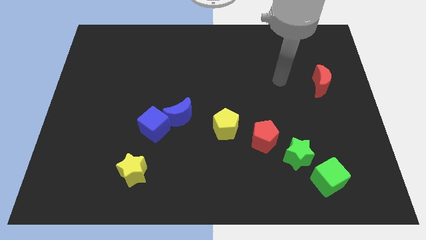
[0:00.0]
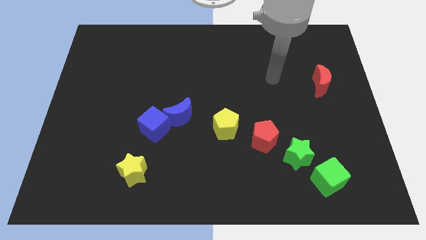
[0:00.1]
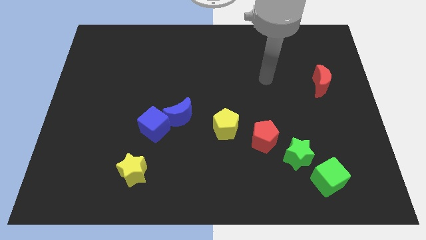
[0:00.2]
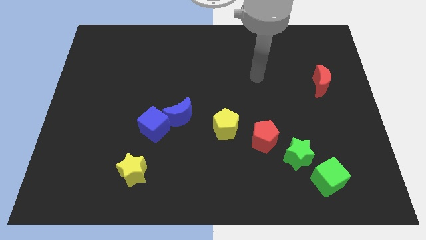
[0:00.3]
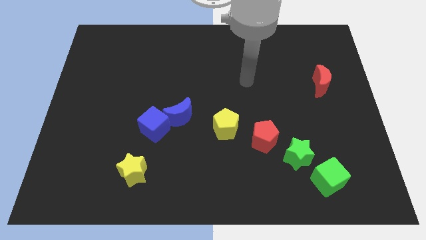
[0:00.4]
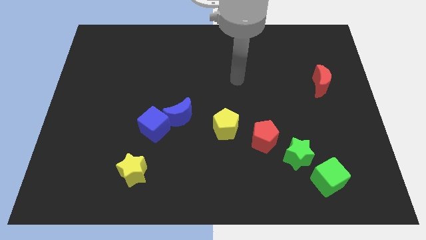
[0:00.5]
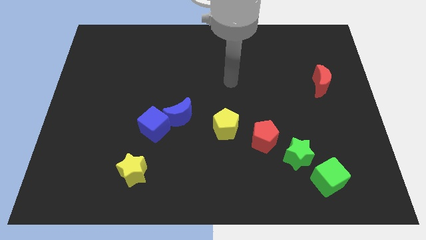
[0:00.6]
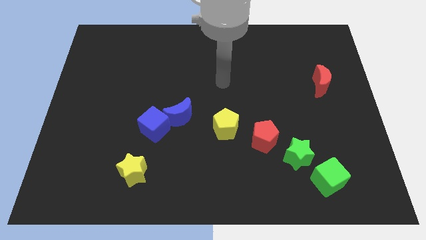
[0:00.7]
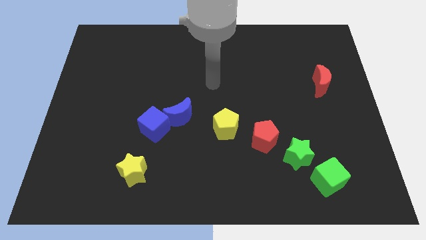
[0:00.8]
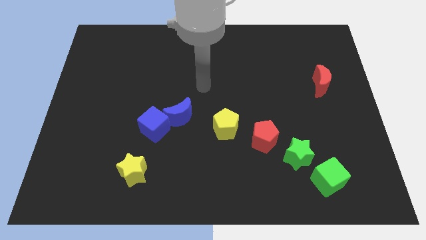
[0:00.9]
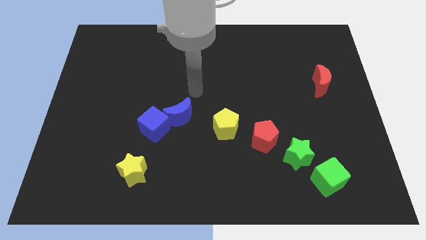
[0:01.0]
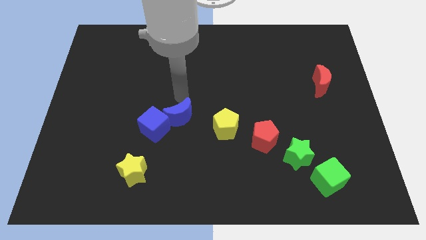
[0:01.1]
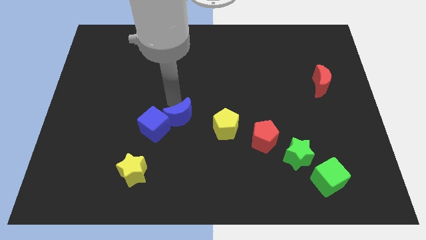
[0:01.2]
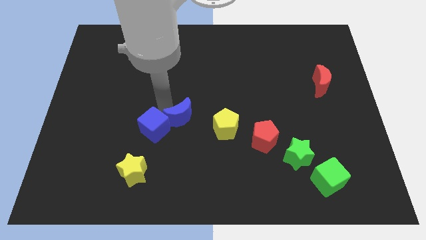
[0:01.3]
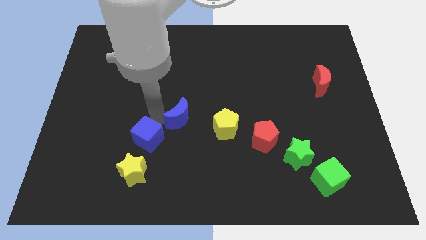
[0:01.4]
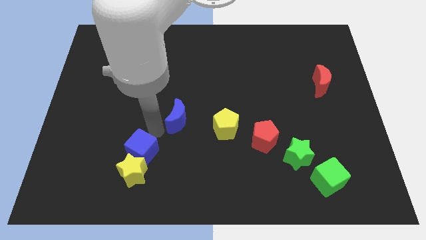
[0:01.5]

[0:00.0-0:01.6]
separate the blue moon from the blue cube

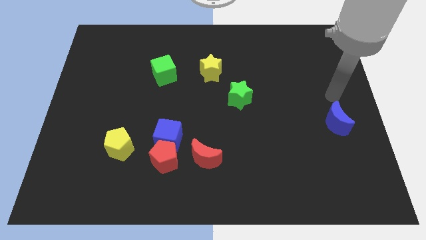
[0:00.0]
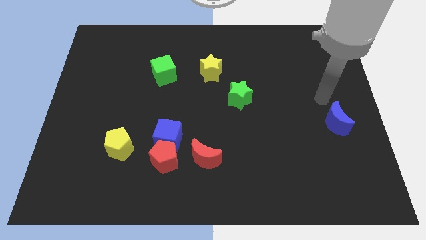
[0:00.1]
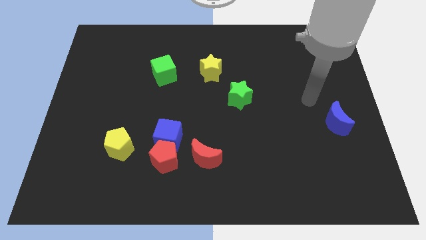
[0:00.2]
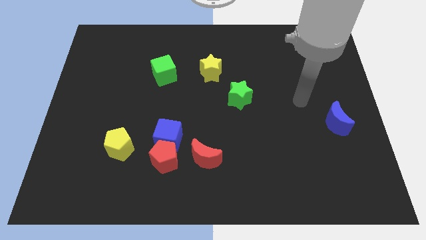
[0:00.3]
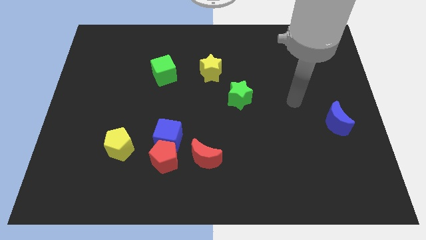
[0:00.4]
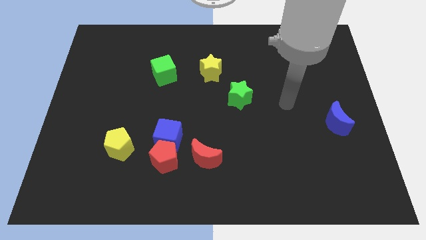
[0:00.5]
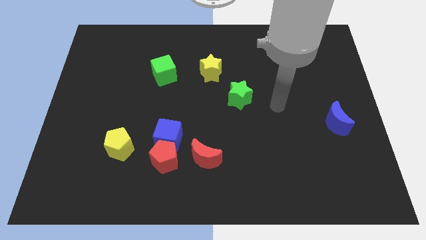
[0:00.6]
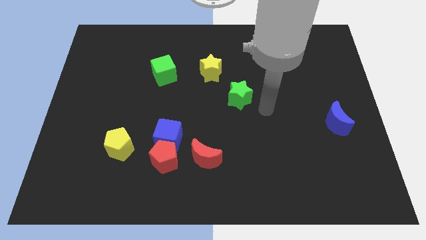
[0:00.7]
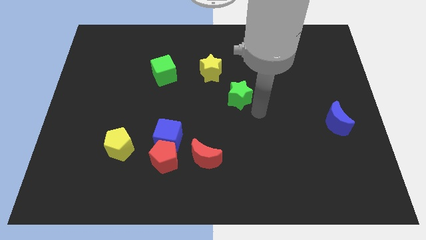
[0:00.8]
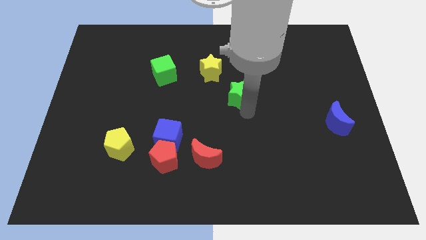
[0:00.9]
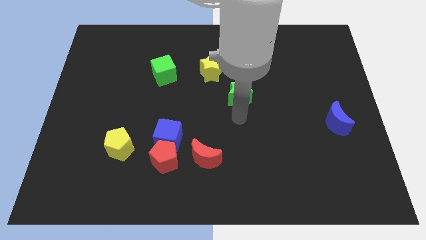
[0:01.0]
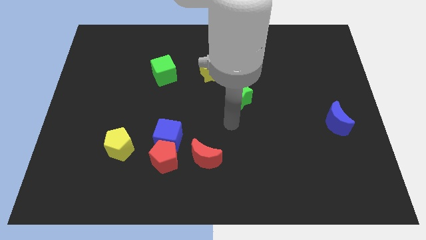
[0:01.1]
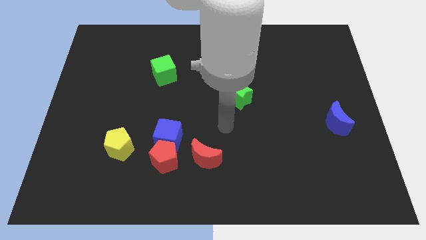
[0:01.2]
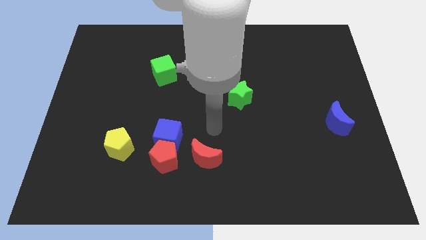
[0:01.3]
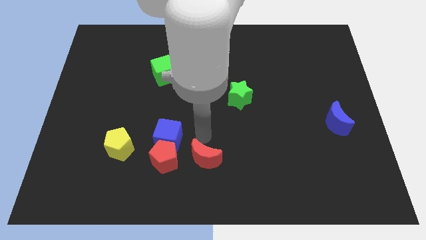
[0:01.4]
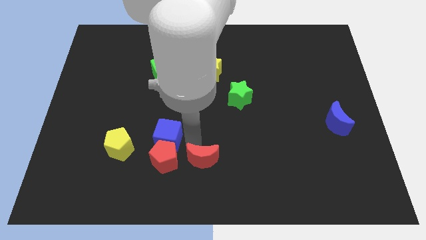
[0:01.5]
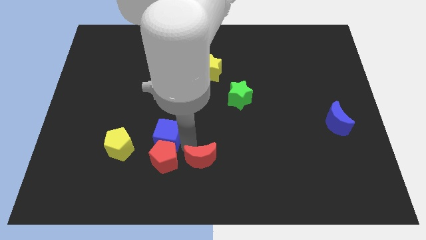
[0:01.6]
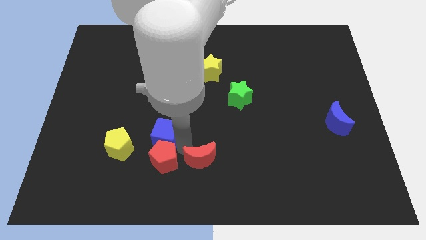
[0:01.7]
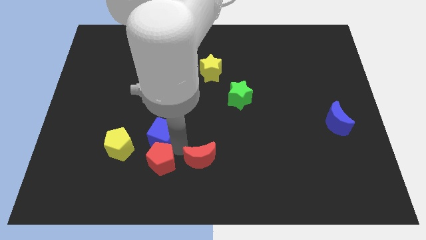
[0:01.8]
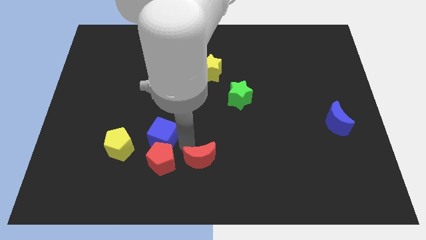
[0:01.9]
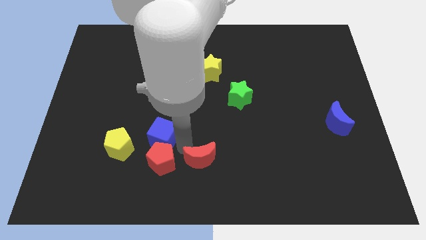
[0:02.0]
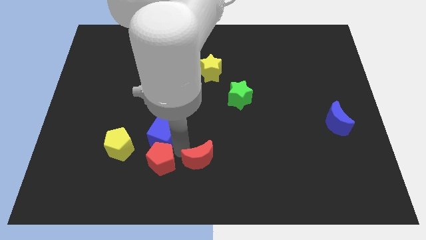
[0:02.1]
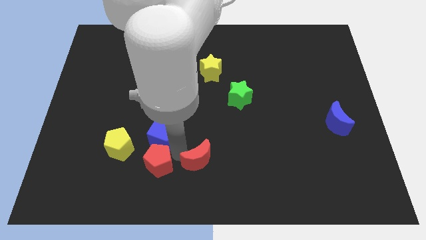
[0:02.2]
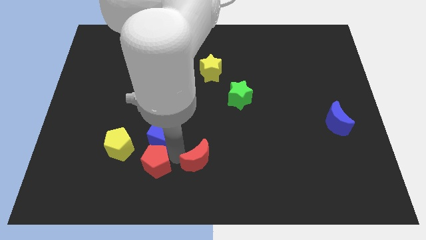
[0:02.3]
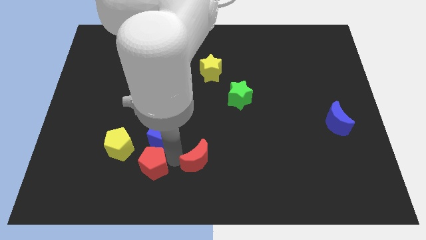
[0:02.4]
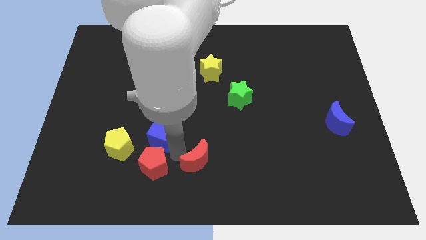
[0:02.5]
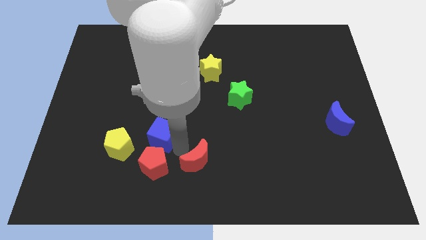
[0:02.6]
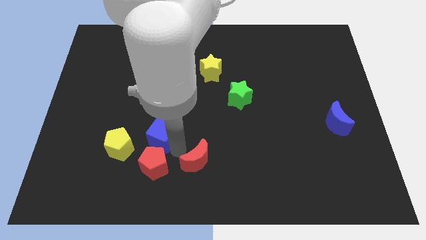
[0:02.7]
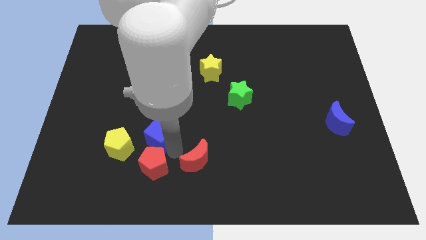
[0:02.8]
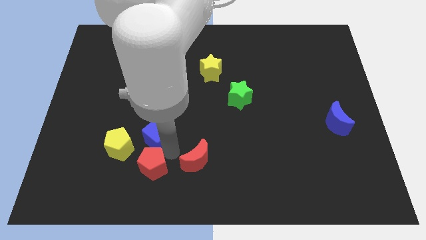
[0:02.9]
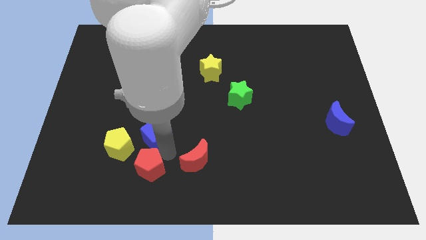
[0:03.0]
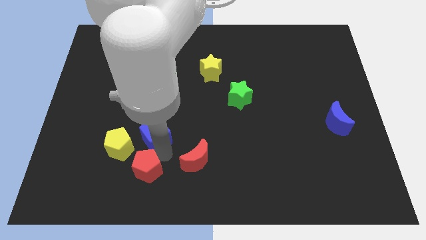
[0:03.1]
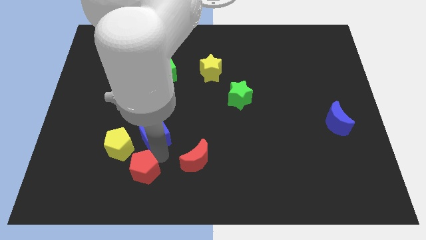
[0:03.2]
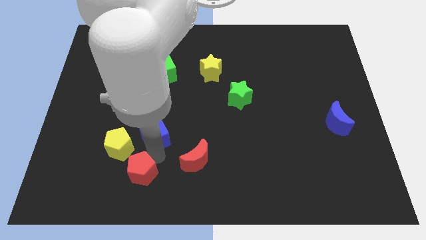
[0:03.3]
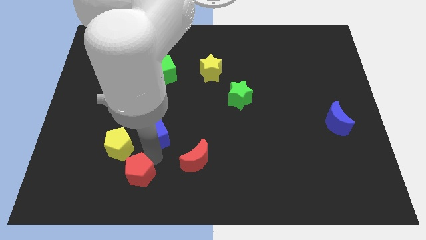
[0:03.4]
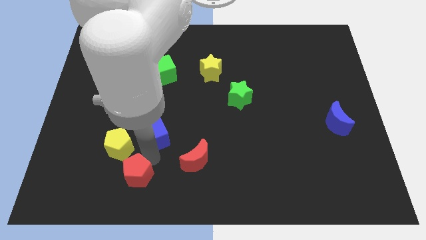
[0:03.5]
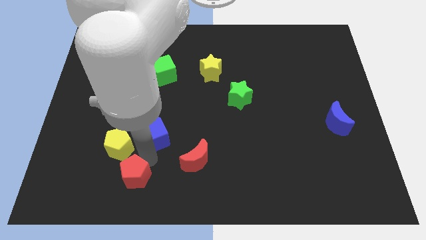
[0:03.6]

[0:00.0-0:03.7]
move the red pentagon away from the blue cube and red moon

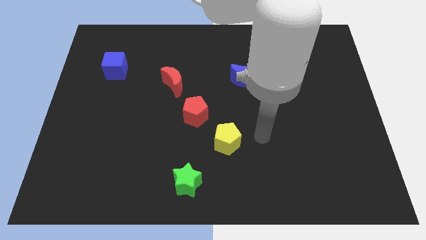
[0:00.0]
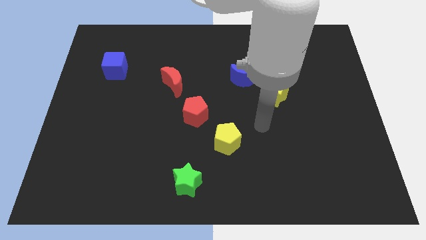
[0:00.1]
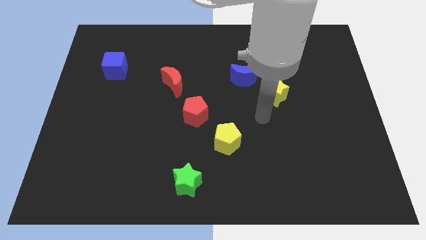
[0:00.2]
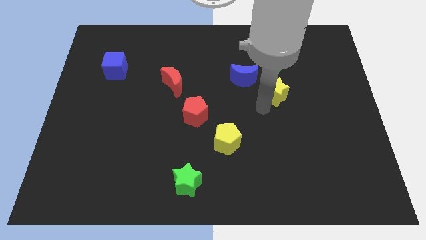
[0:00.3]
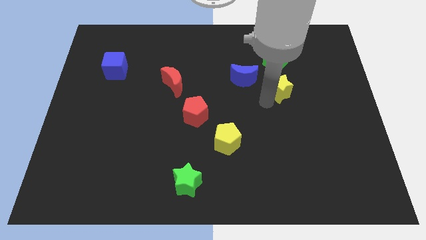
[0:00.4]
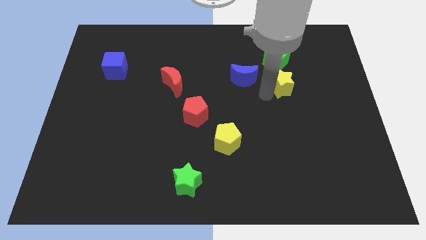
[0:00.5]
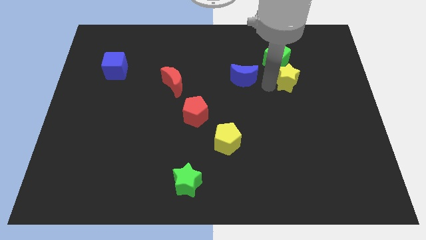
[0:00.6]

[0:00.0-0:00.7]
separate the blue moon from the yellow star

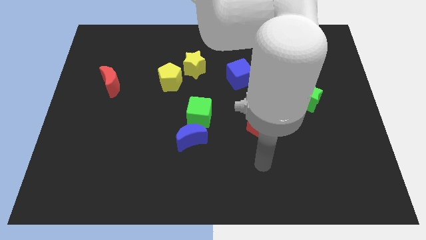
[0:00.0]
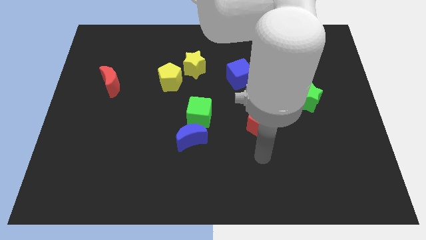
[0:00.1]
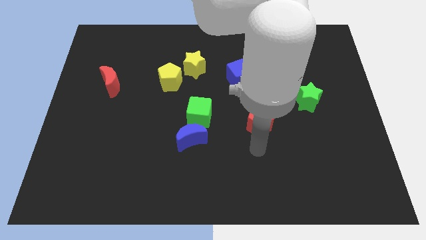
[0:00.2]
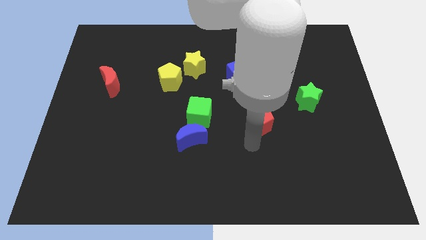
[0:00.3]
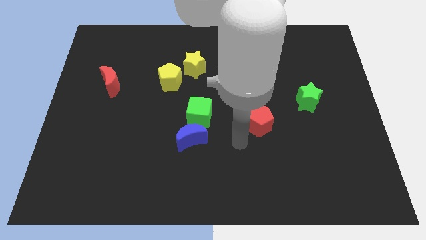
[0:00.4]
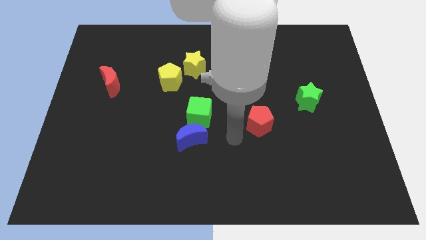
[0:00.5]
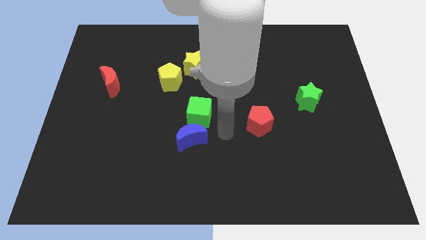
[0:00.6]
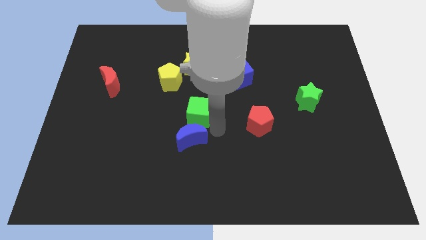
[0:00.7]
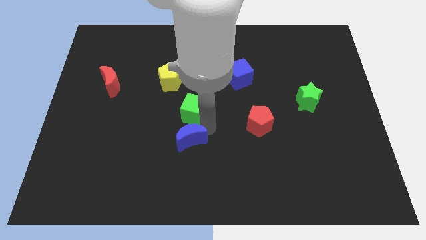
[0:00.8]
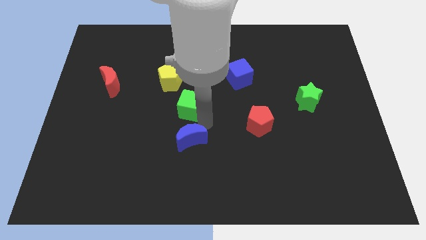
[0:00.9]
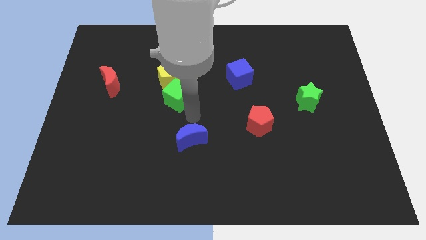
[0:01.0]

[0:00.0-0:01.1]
pull the blue moon apart from the green cube

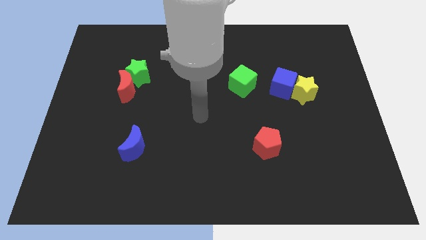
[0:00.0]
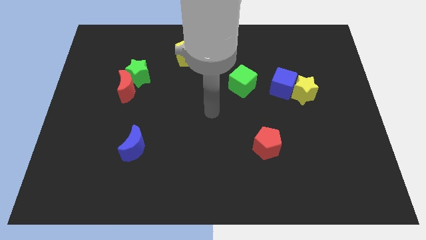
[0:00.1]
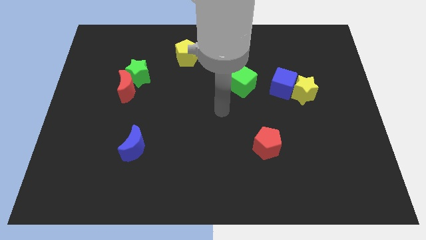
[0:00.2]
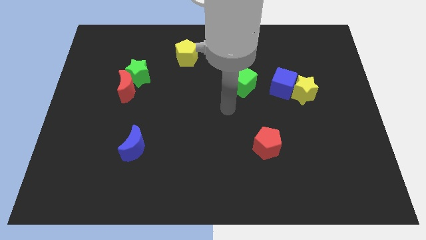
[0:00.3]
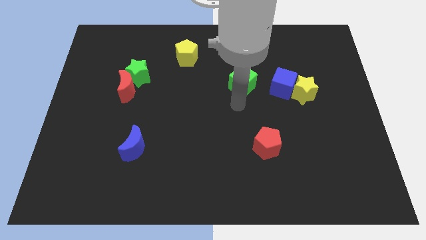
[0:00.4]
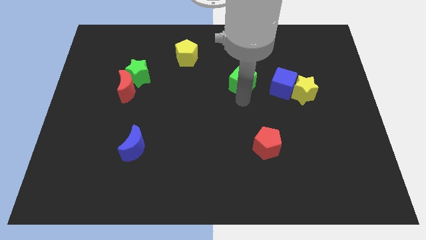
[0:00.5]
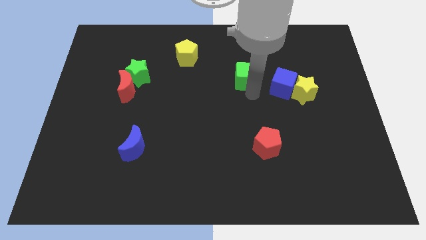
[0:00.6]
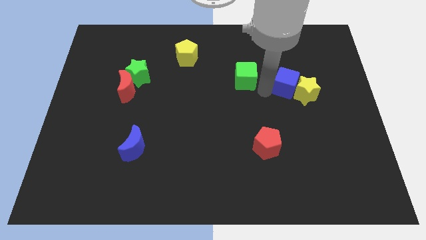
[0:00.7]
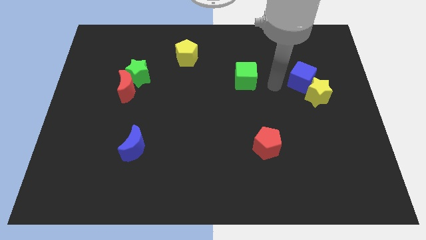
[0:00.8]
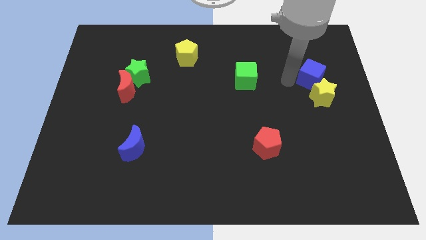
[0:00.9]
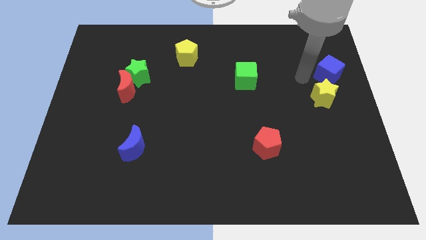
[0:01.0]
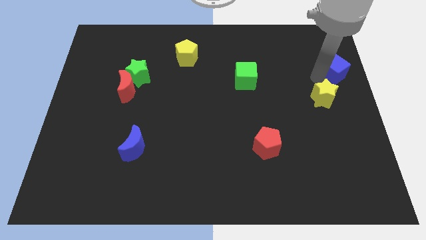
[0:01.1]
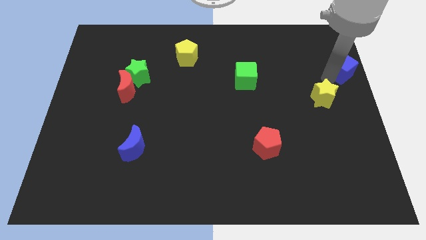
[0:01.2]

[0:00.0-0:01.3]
move the yellow star away from the blue cube

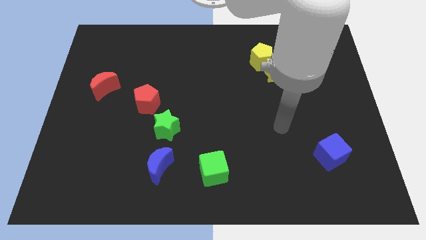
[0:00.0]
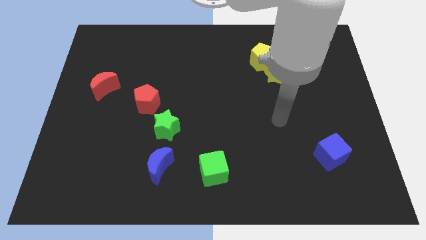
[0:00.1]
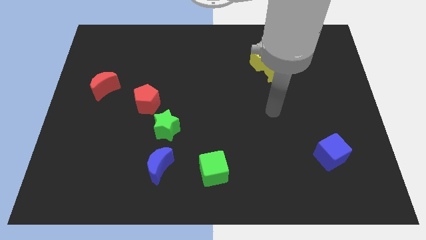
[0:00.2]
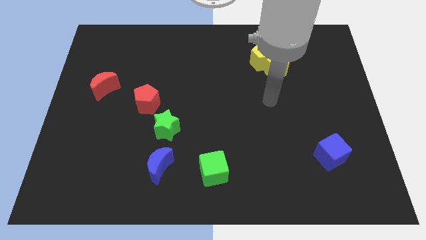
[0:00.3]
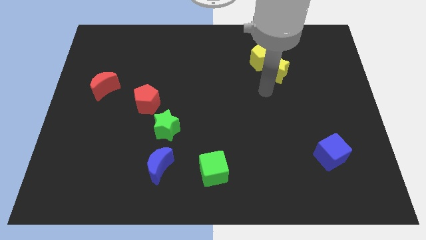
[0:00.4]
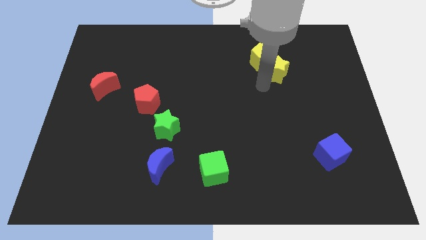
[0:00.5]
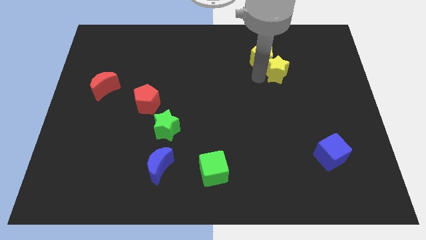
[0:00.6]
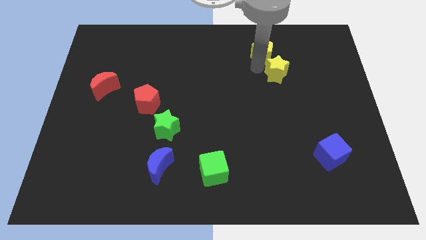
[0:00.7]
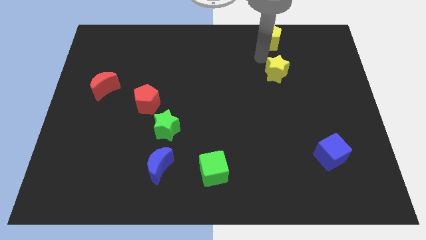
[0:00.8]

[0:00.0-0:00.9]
separate the yellow star from the yellow pentagon
